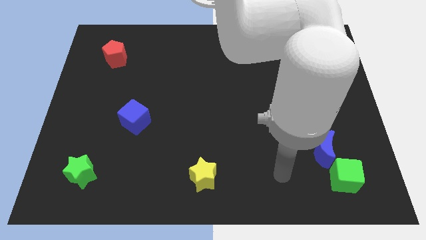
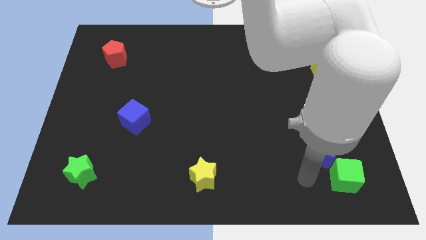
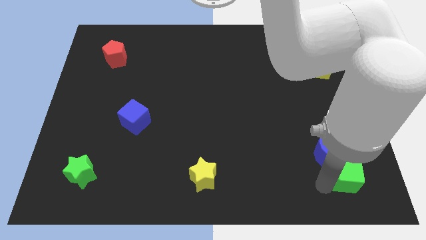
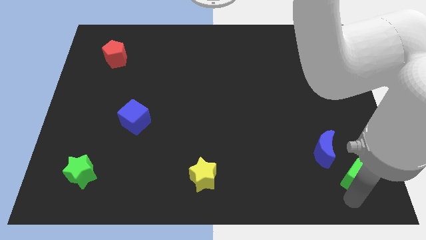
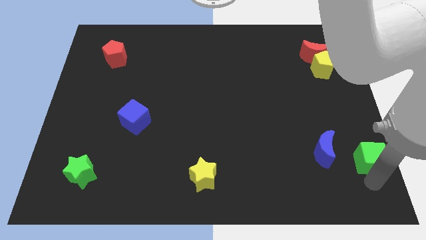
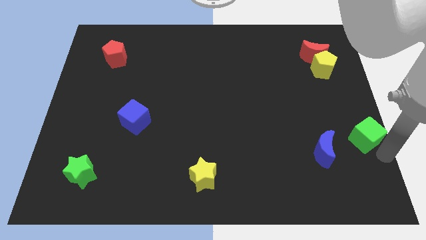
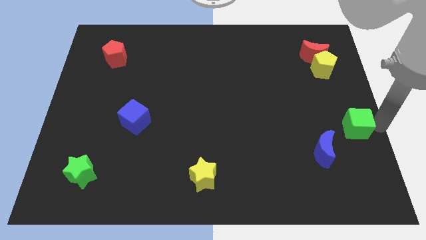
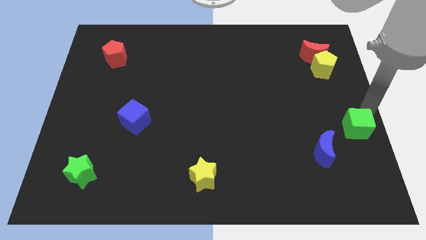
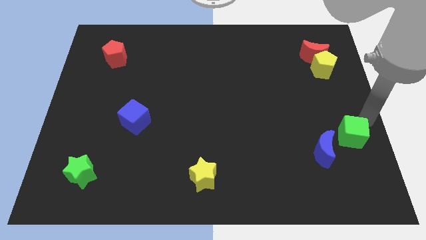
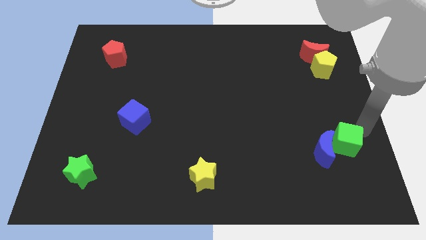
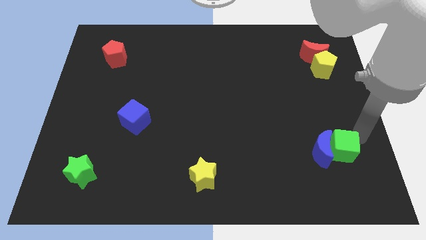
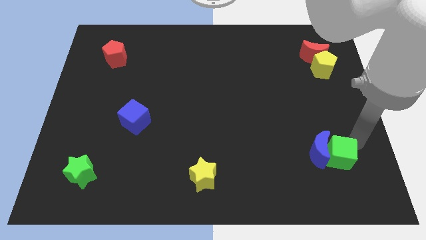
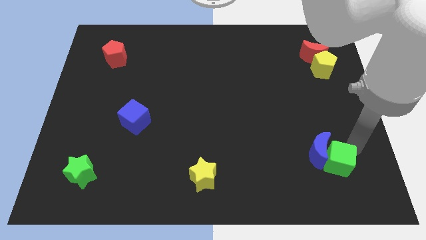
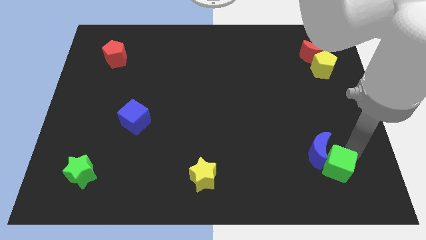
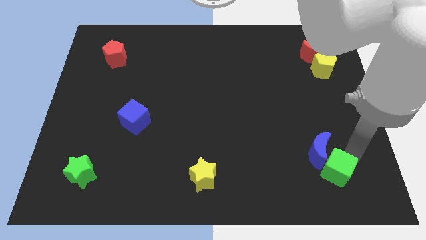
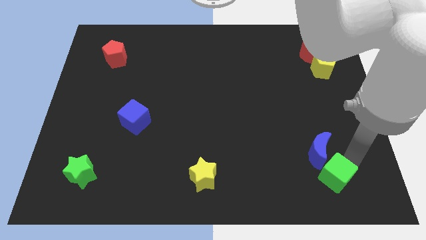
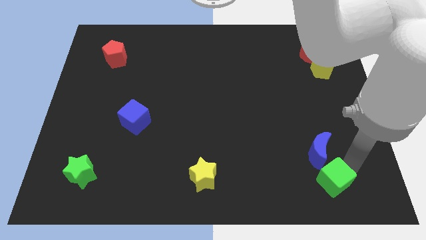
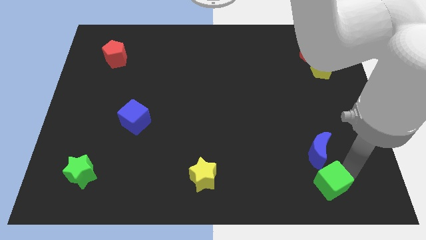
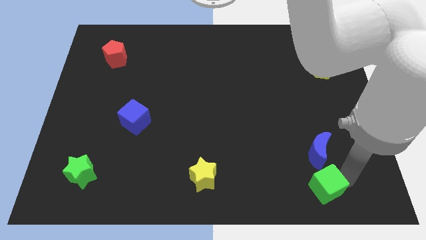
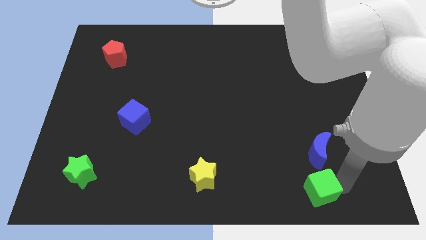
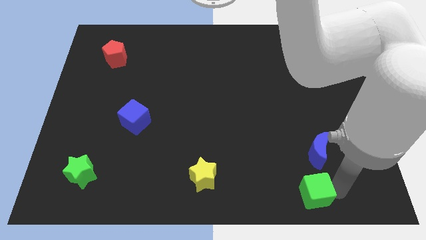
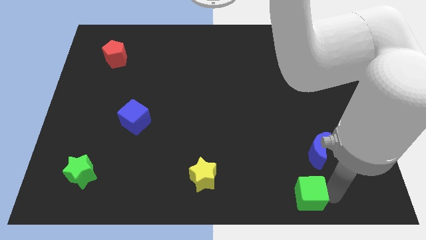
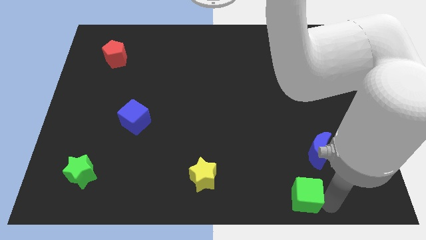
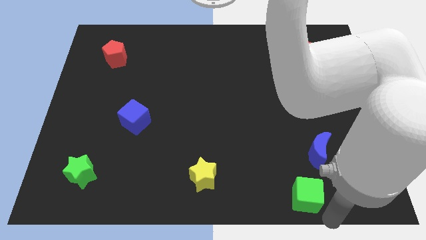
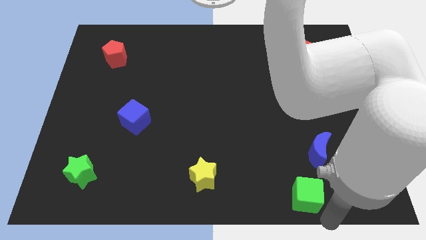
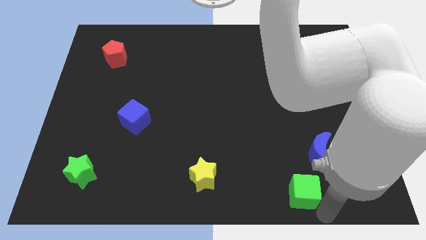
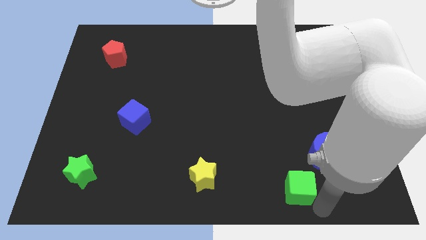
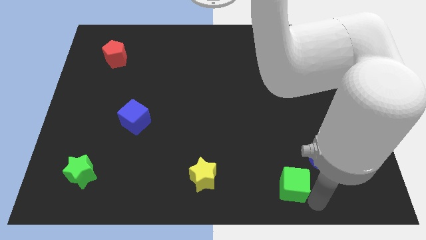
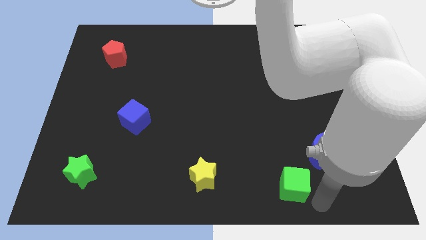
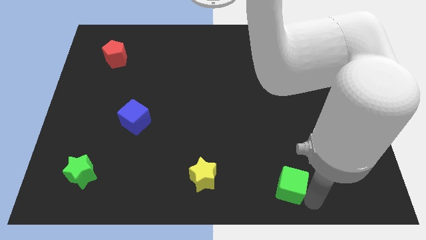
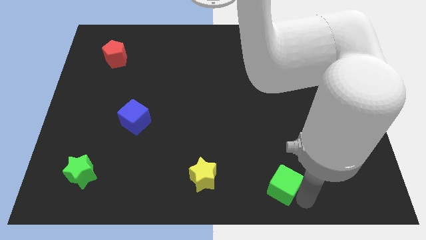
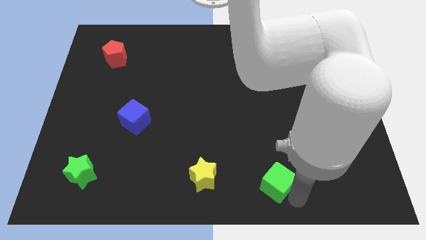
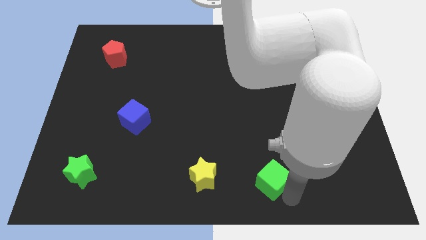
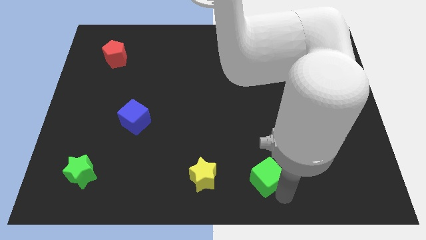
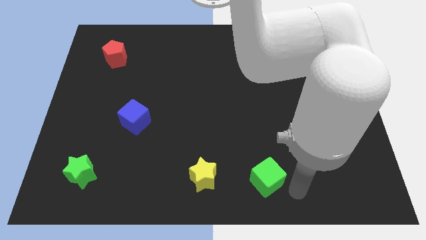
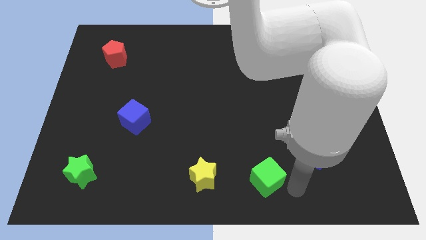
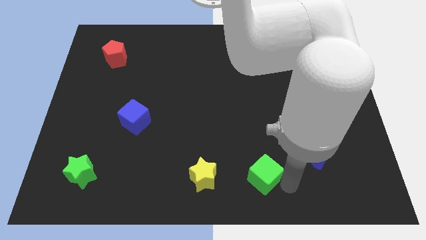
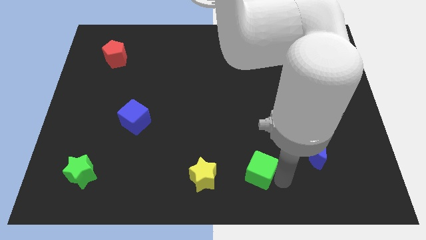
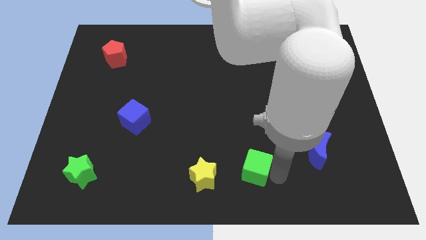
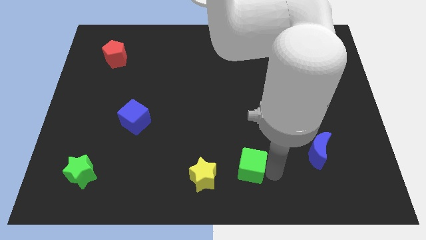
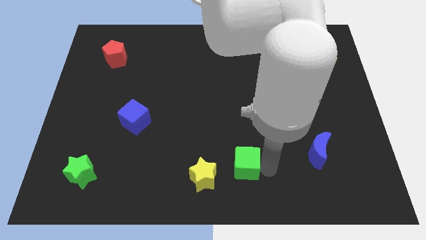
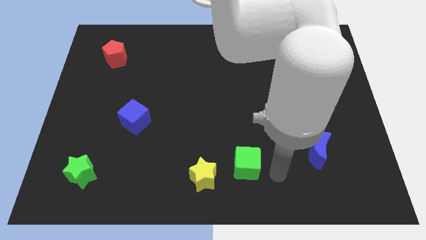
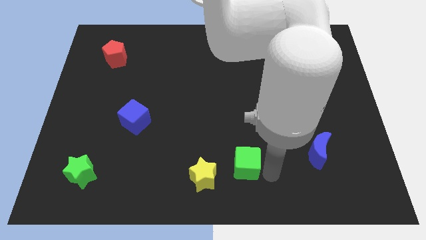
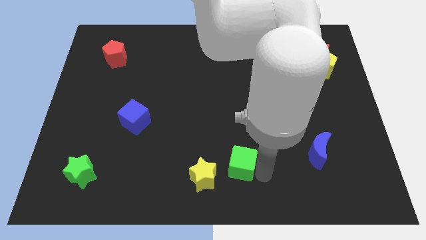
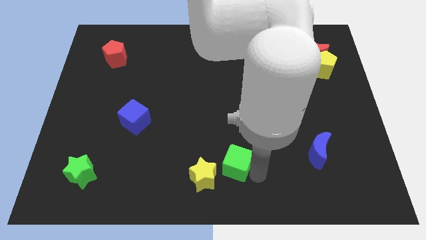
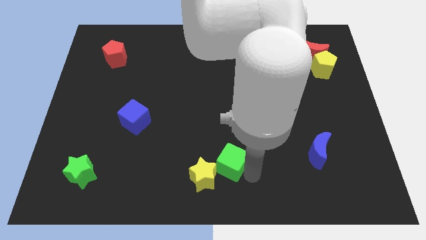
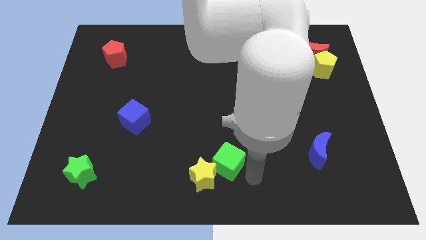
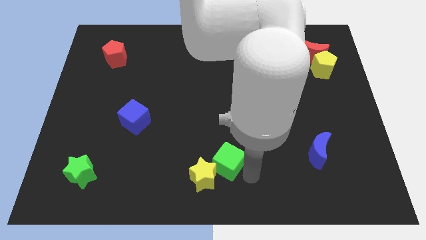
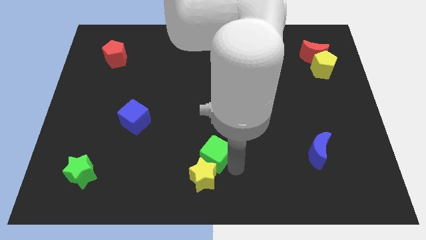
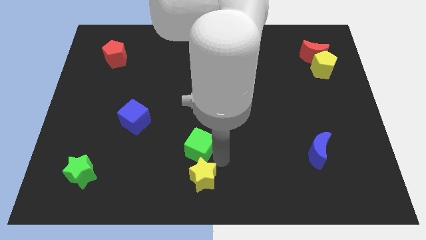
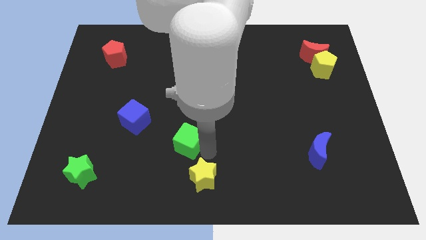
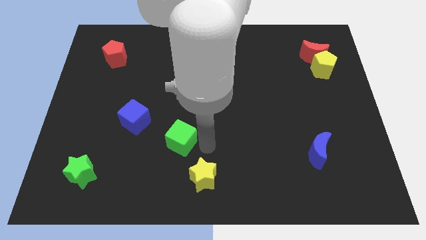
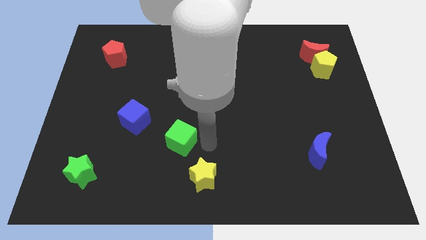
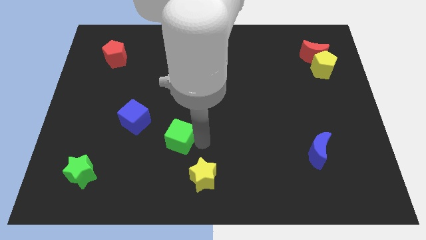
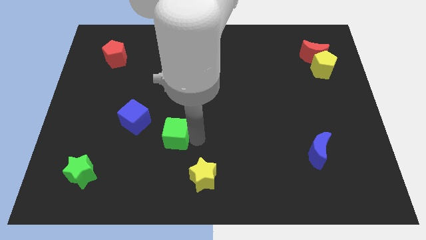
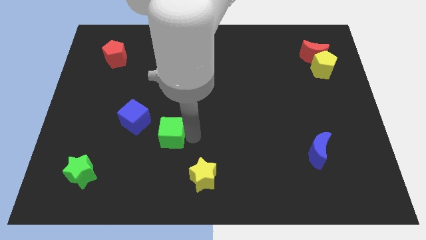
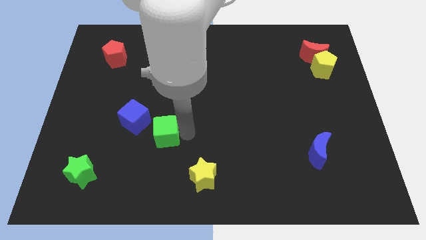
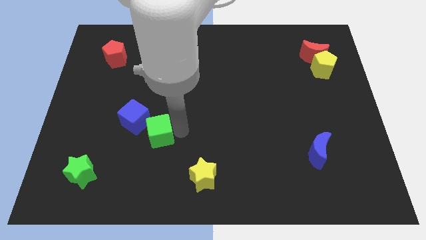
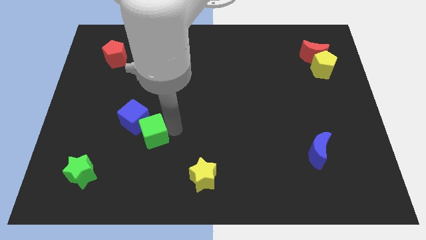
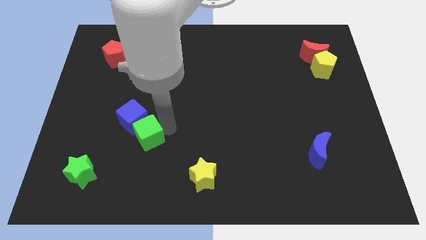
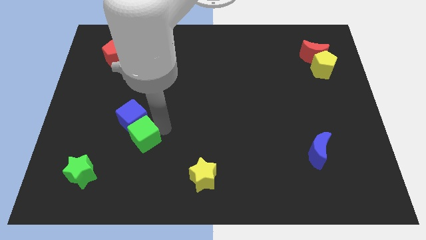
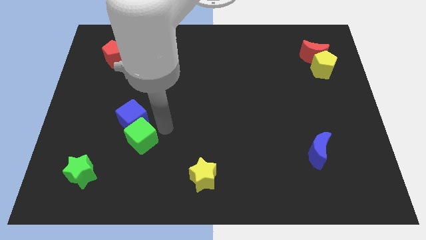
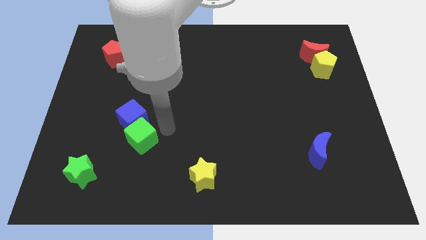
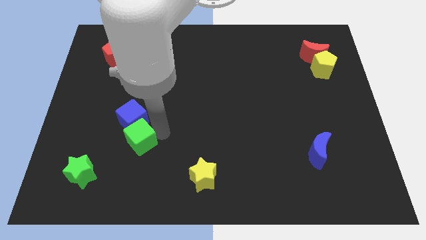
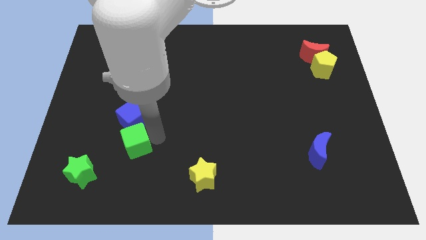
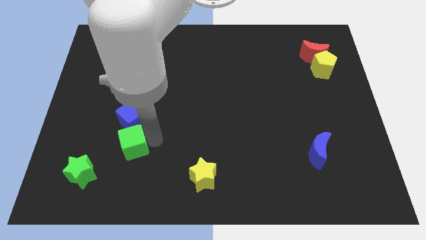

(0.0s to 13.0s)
move the green cube diagonally up and to the right of the green star

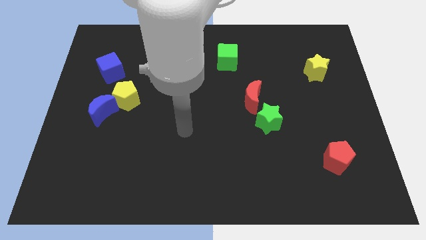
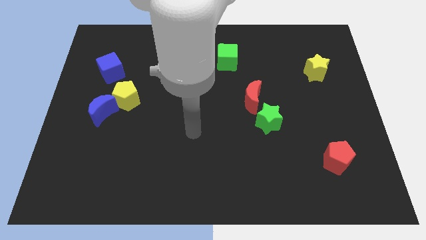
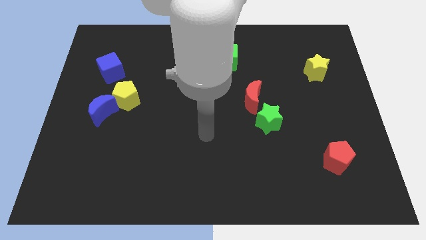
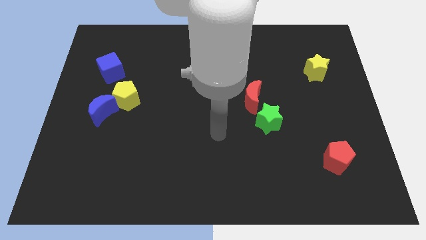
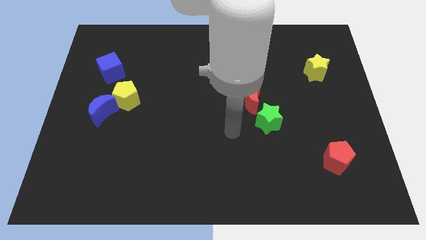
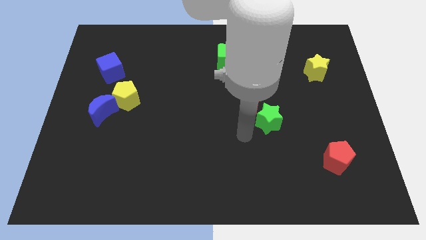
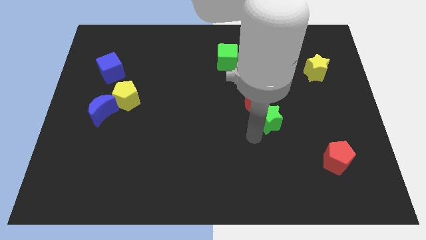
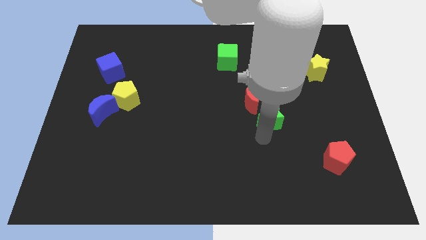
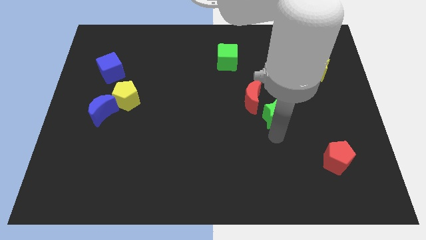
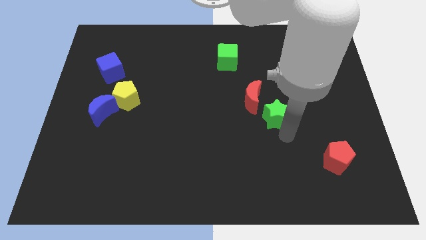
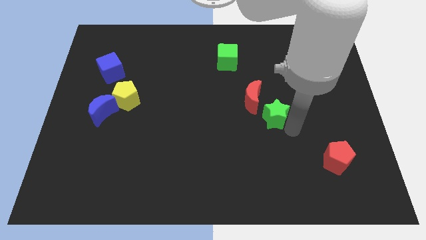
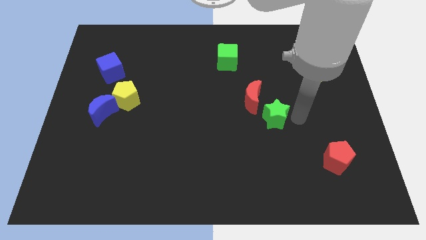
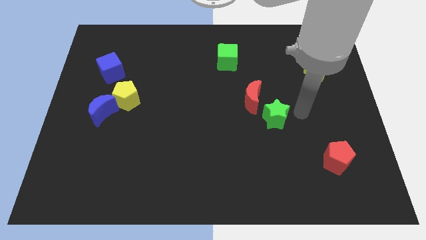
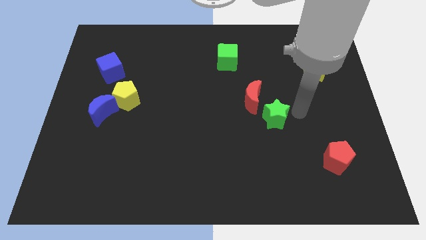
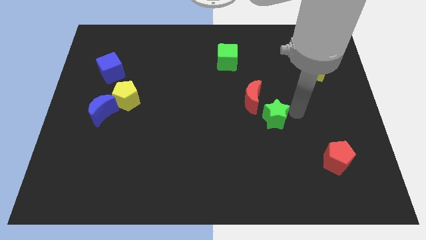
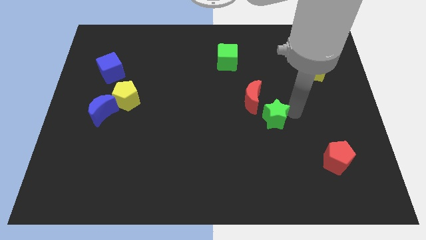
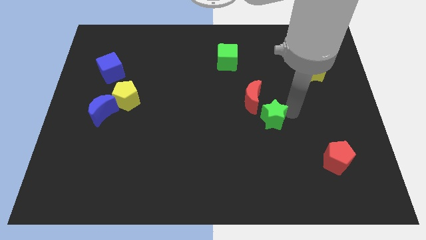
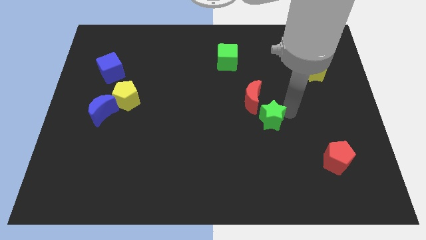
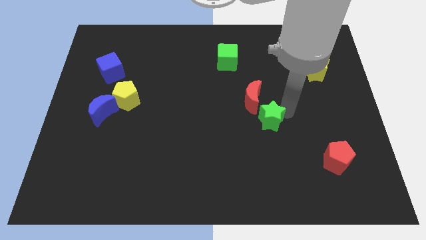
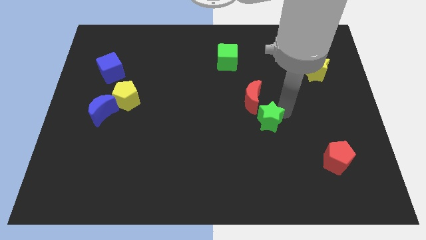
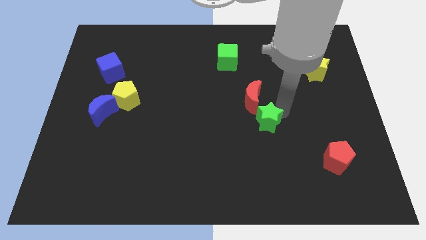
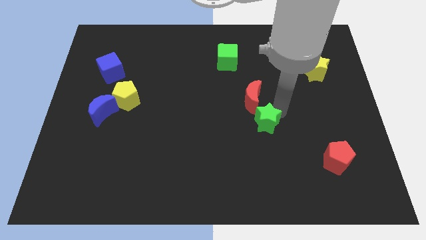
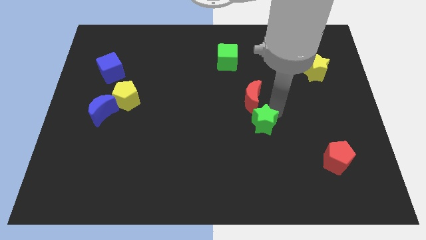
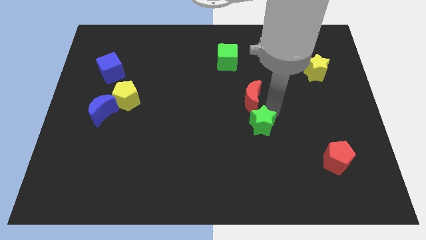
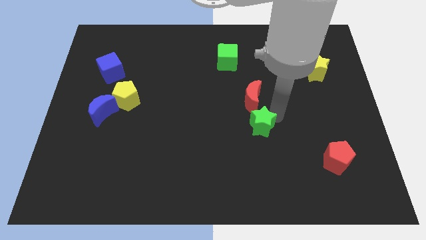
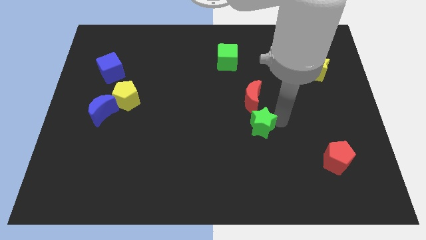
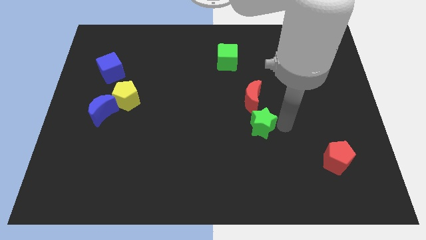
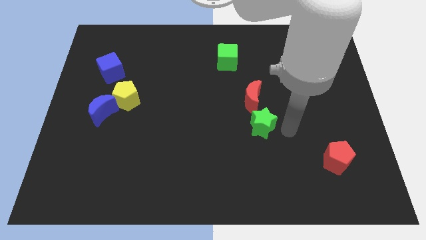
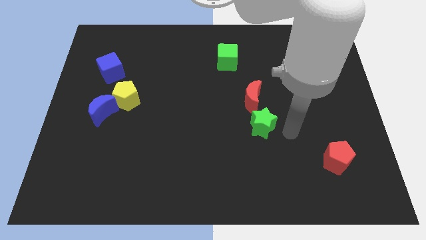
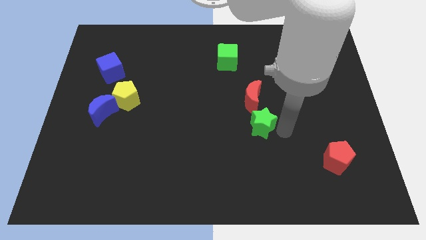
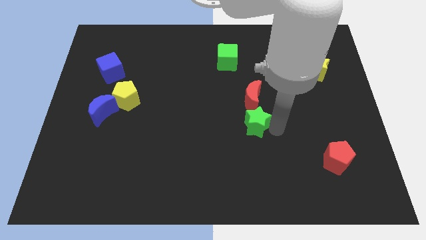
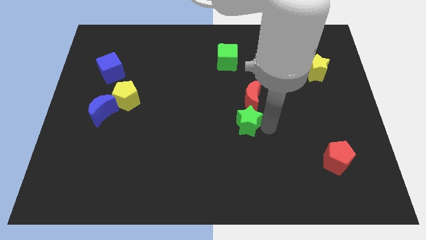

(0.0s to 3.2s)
put the green star to the bottom left side of the red moon
